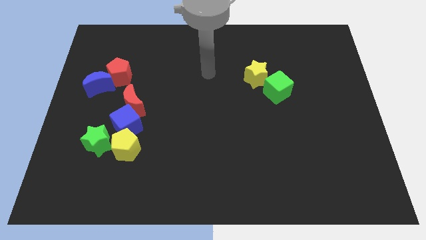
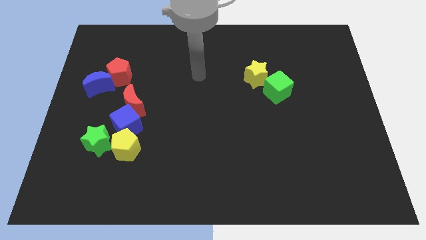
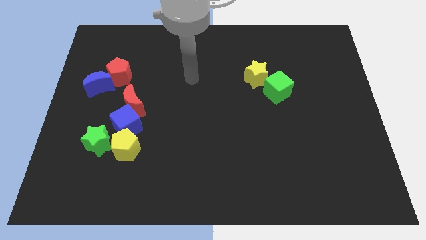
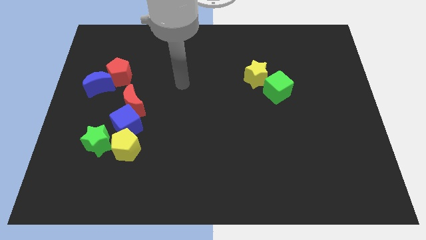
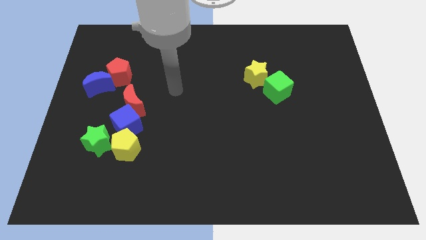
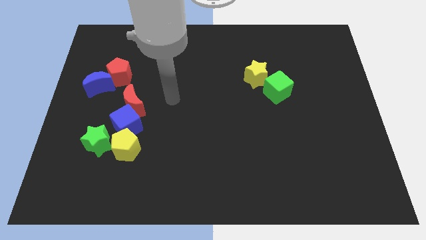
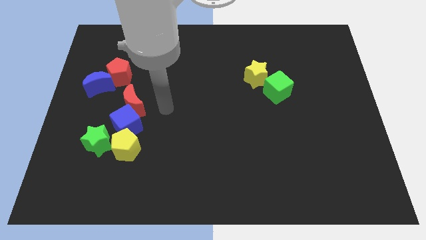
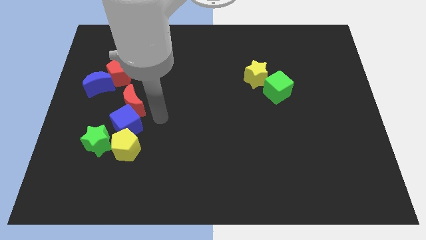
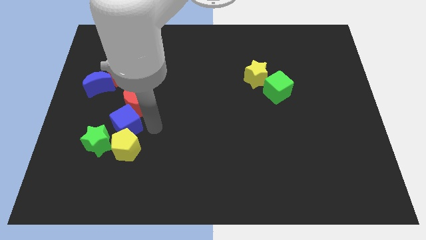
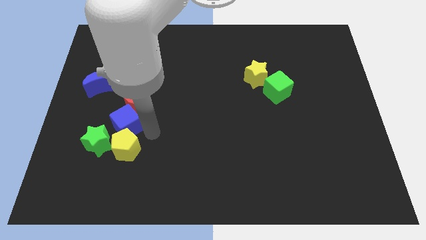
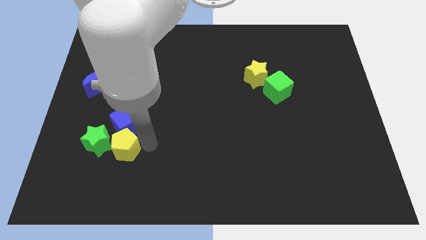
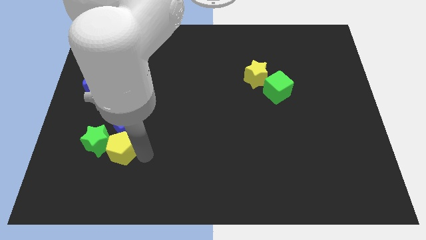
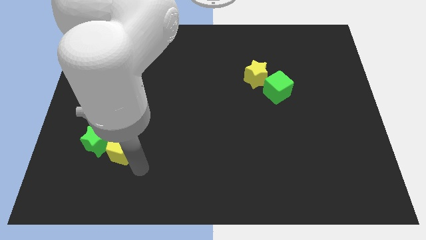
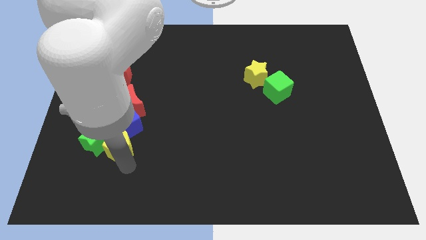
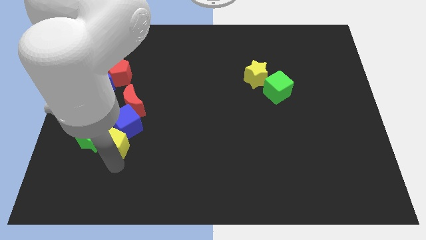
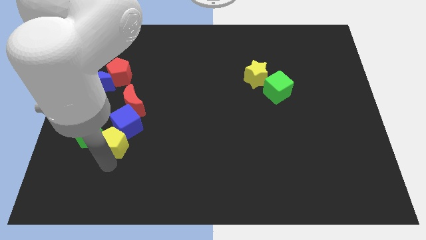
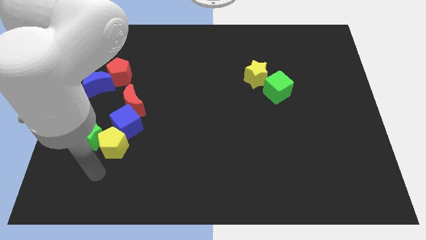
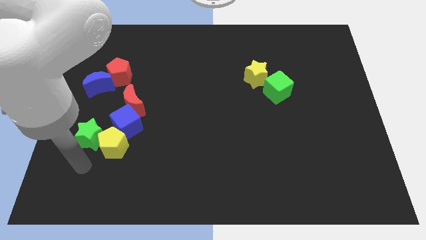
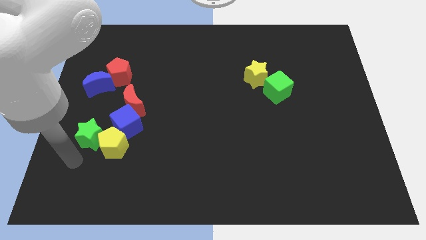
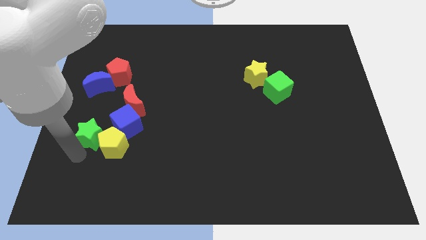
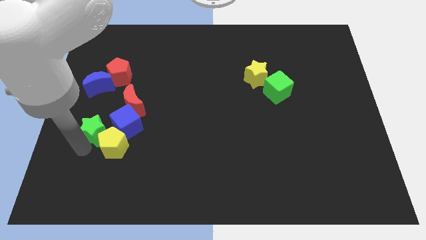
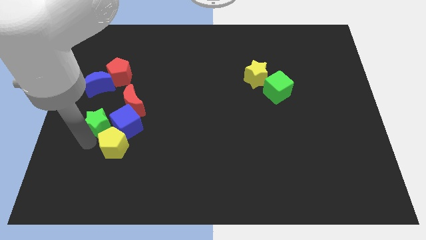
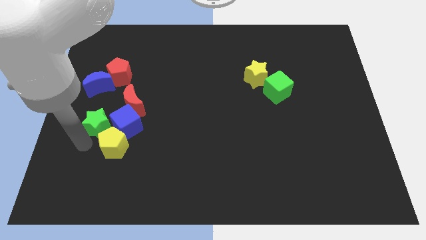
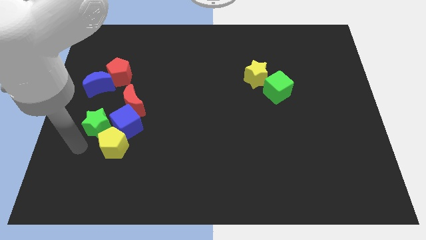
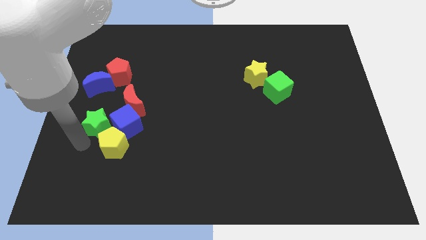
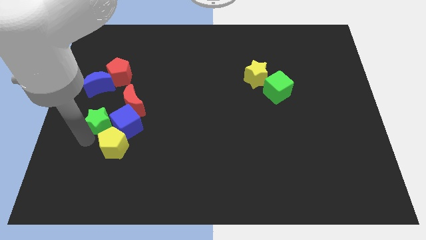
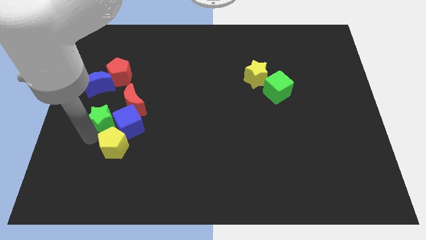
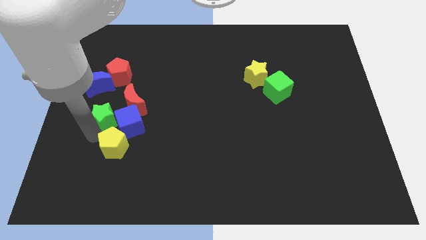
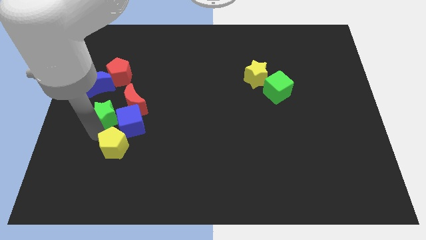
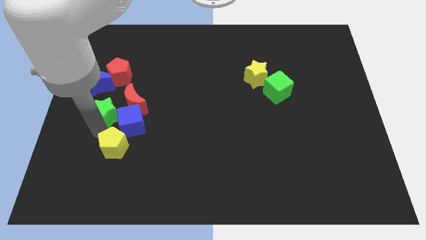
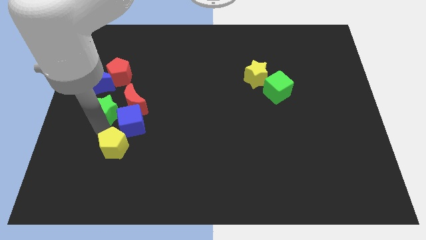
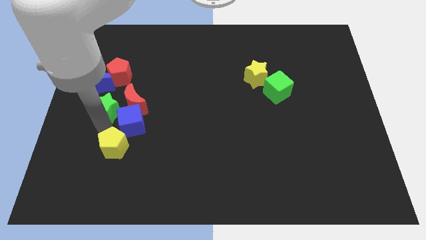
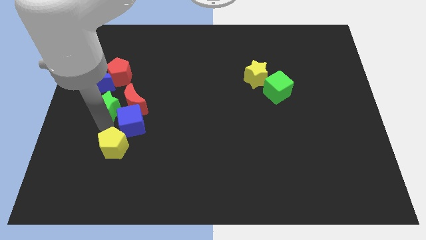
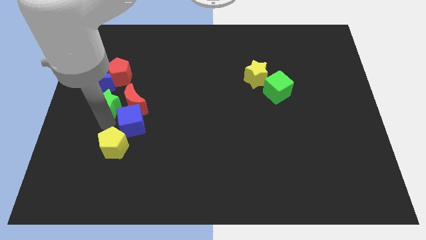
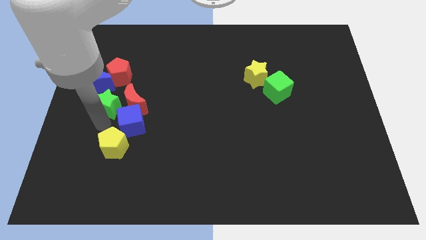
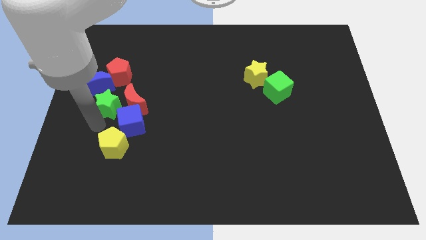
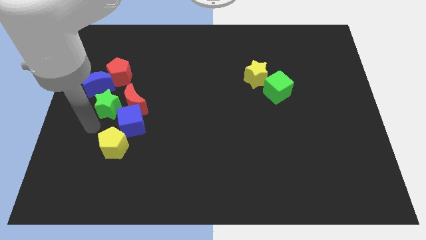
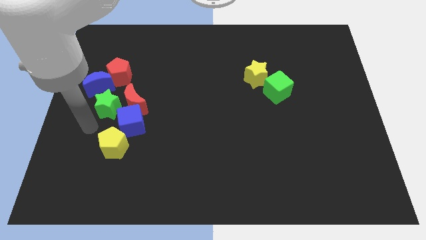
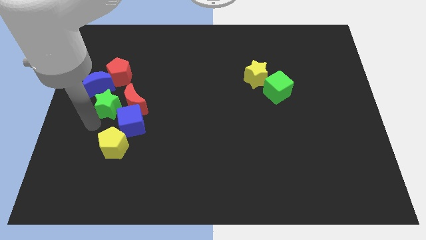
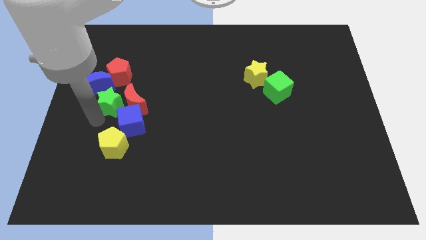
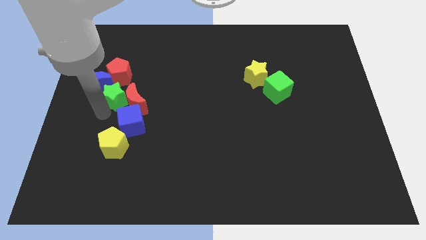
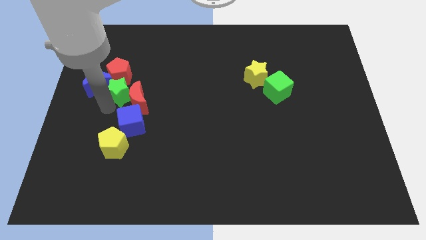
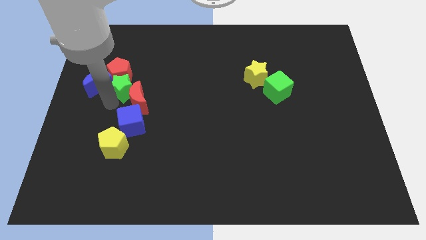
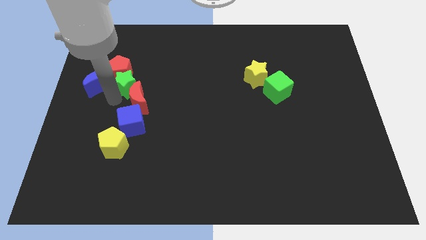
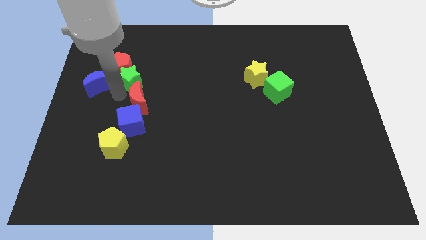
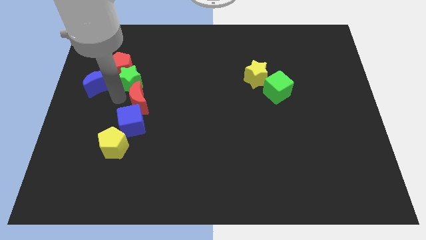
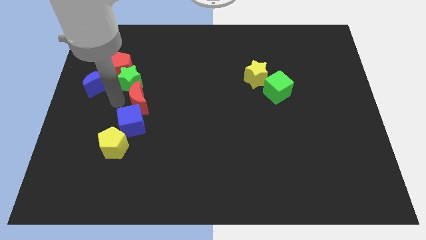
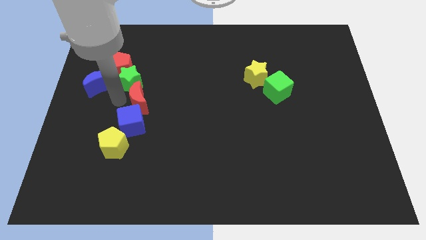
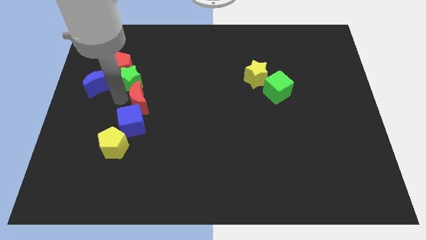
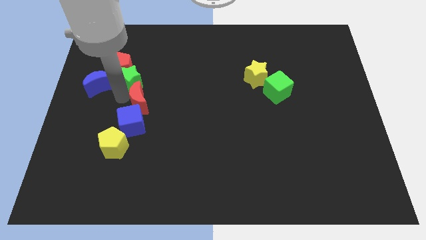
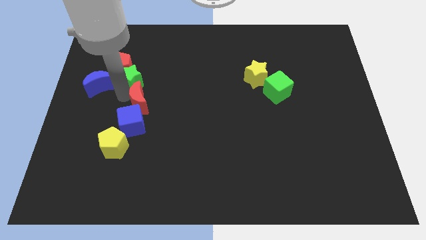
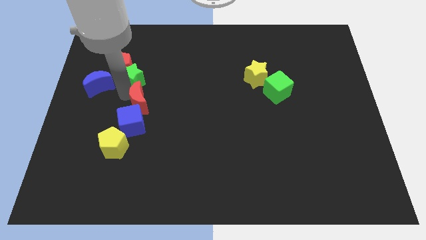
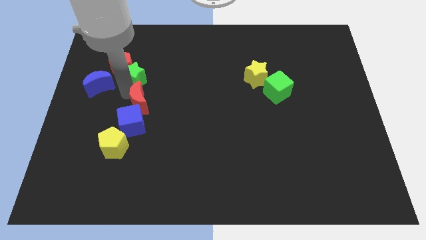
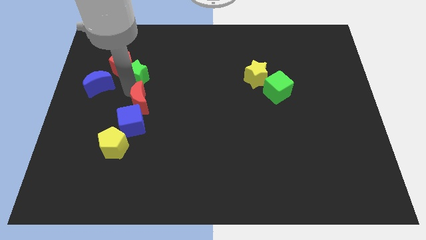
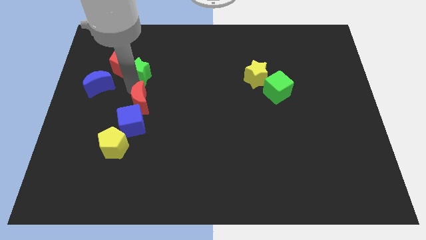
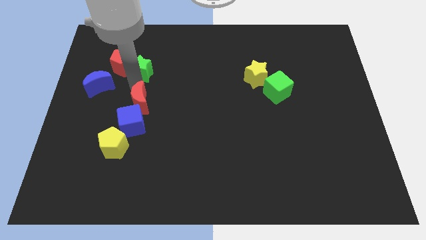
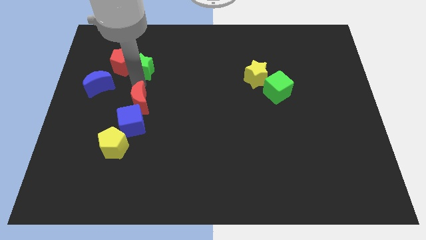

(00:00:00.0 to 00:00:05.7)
slide the green star to the top right side of the red pentagon

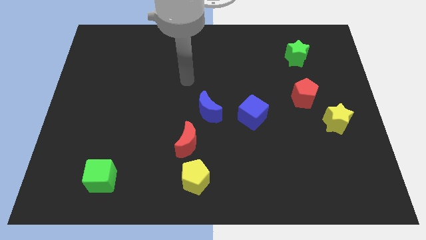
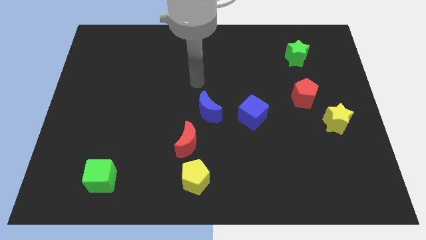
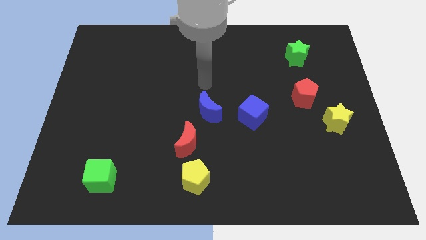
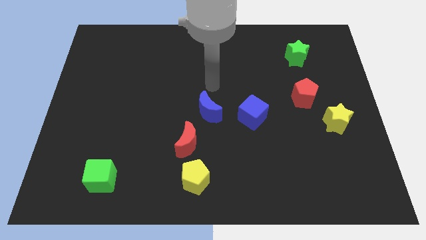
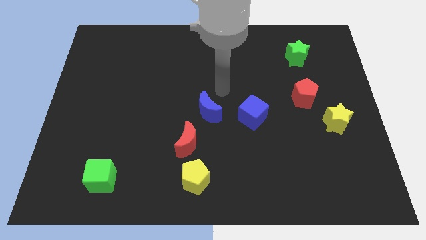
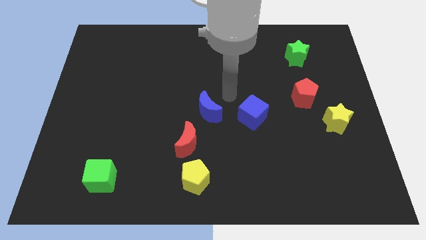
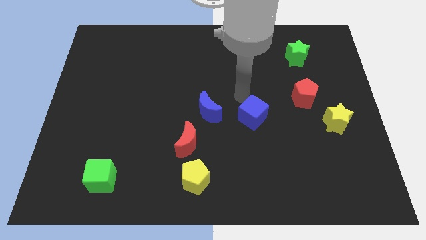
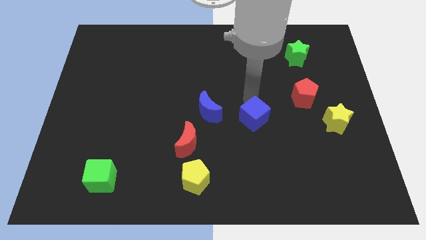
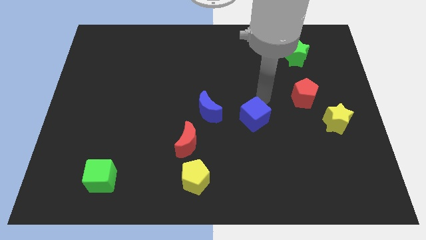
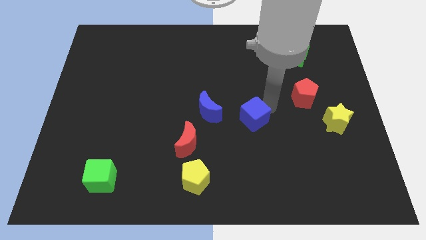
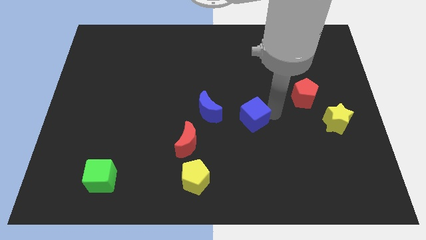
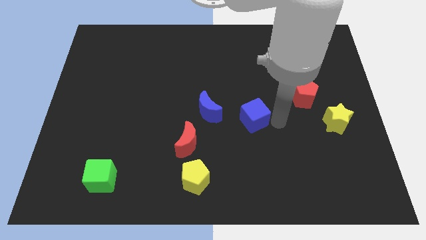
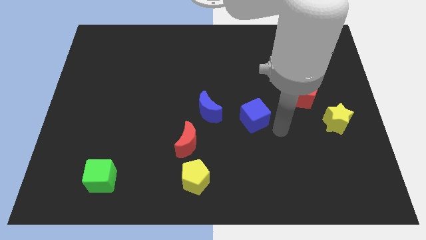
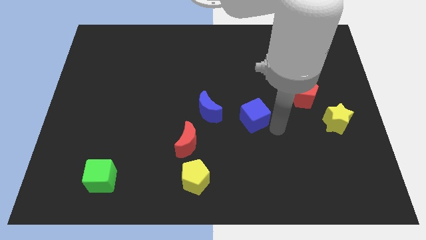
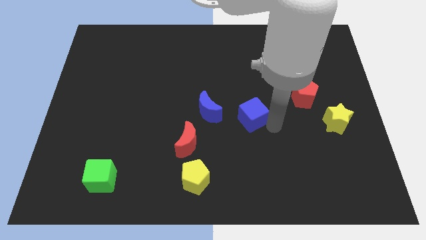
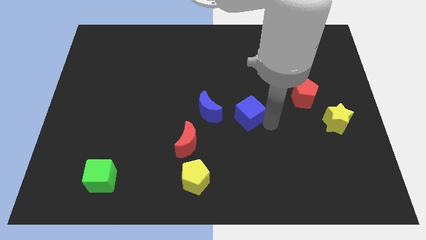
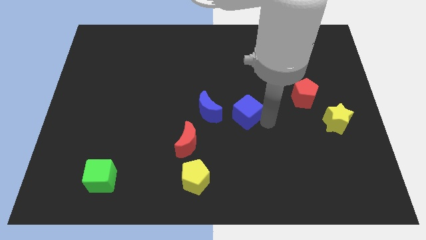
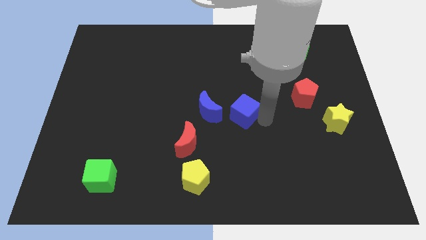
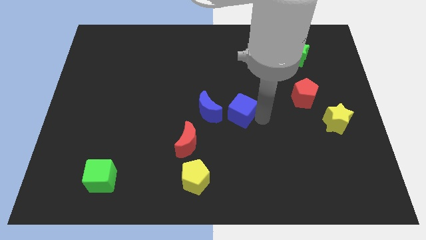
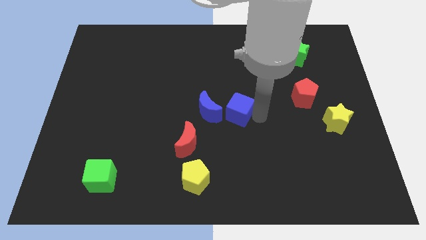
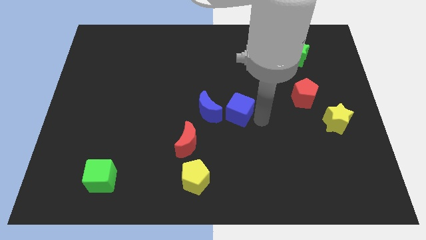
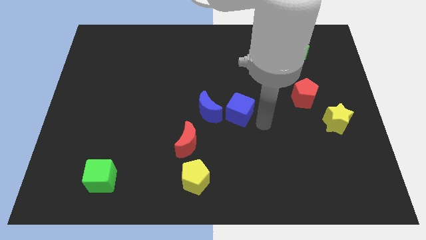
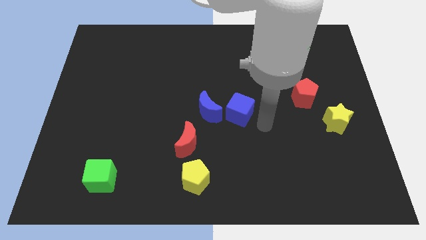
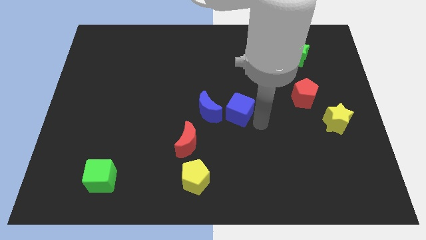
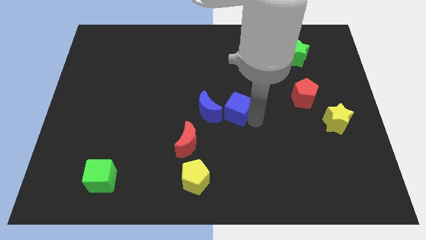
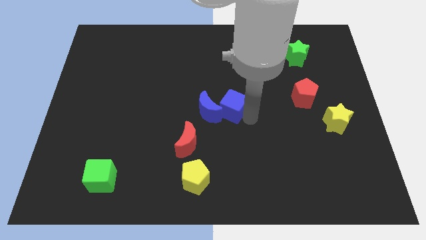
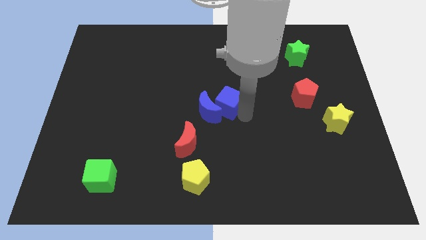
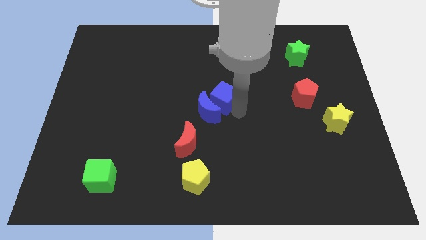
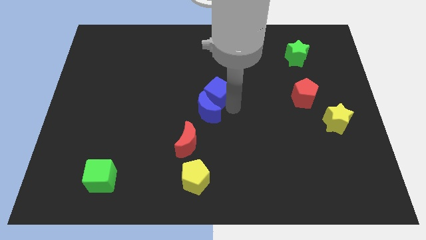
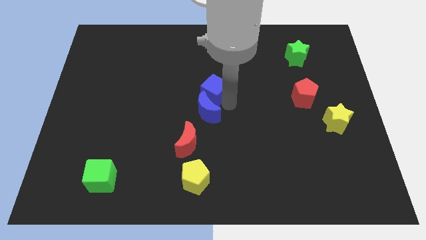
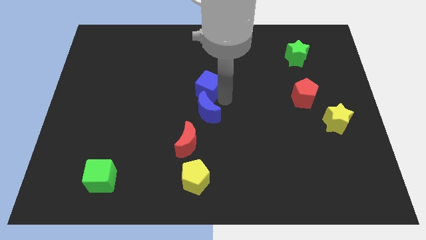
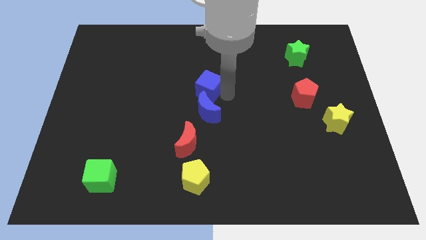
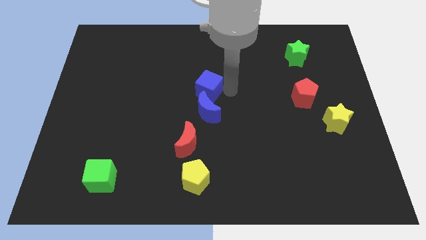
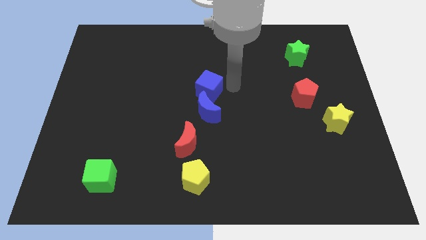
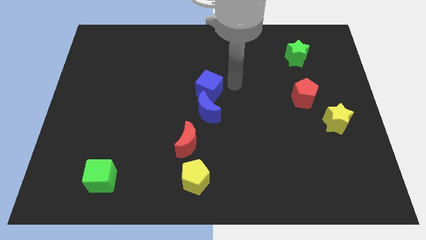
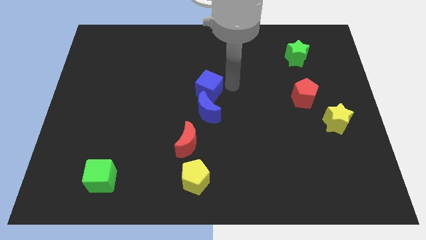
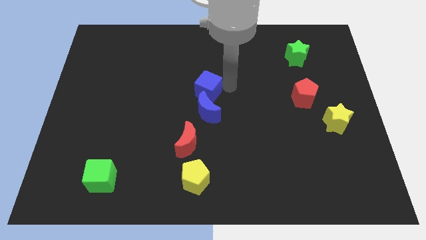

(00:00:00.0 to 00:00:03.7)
move the blue cube diagonally up and to the left of the blue moon
